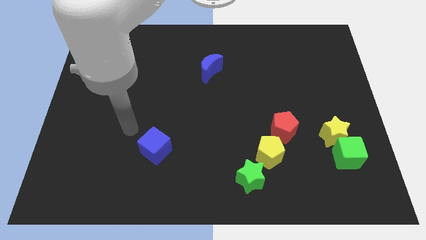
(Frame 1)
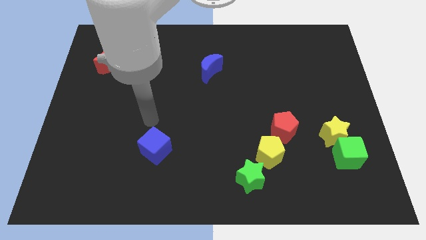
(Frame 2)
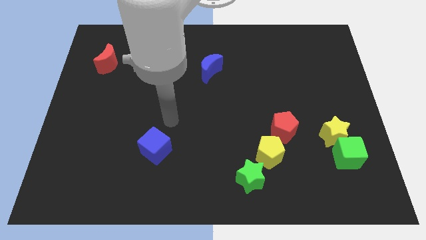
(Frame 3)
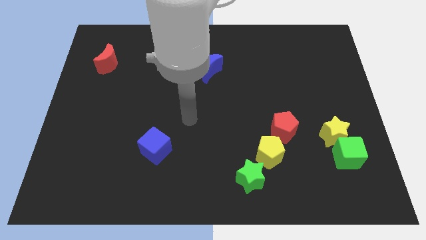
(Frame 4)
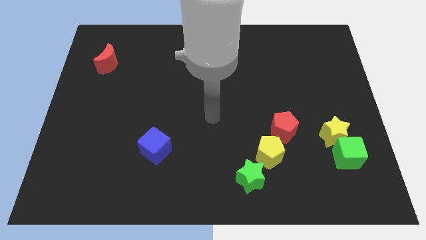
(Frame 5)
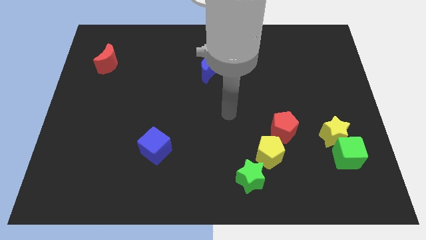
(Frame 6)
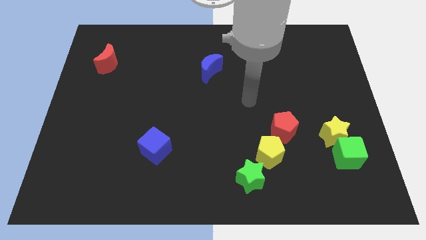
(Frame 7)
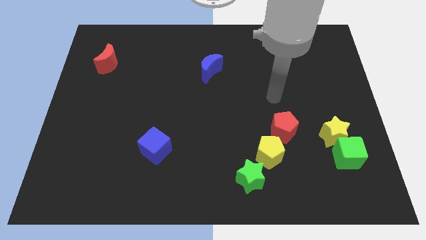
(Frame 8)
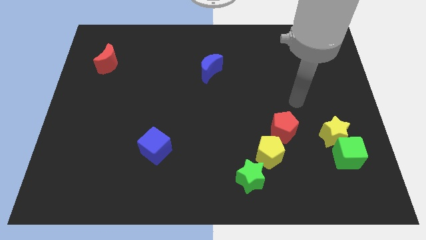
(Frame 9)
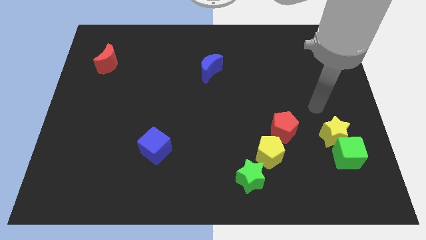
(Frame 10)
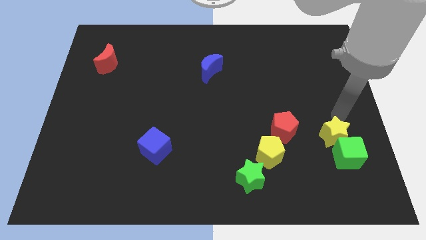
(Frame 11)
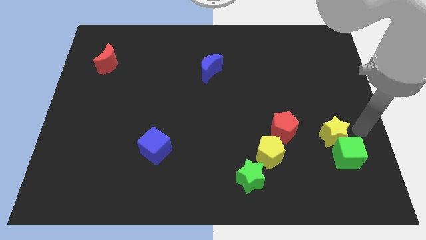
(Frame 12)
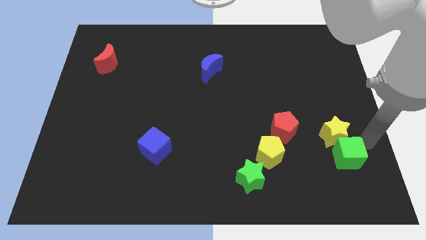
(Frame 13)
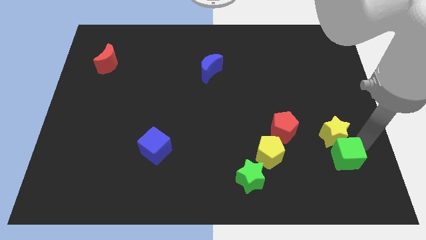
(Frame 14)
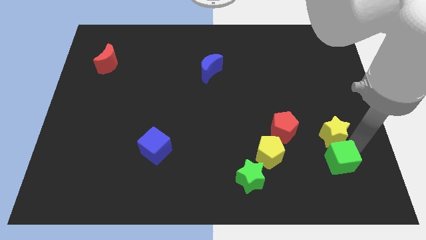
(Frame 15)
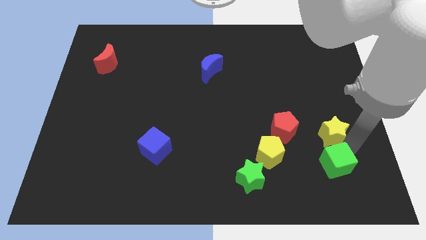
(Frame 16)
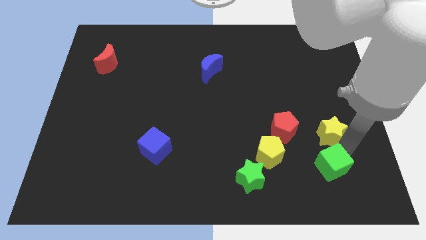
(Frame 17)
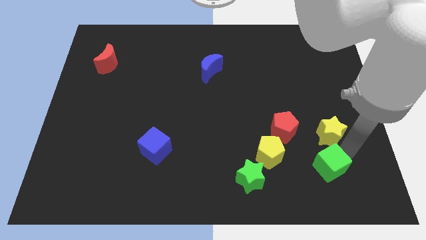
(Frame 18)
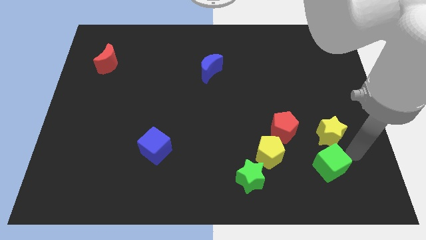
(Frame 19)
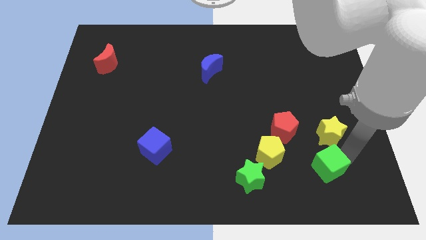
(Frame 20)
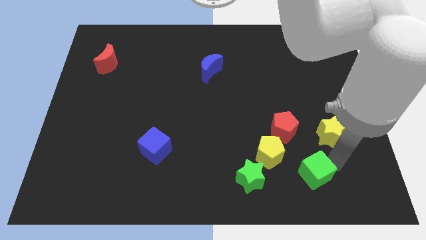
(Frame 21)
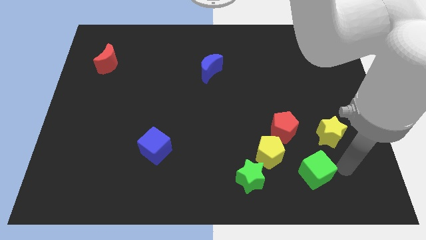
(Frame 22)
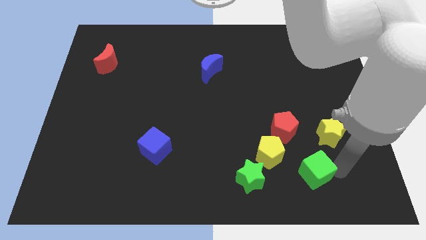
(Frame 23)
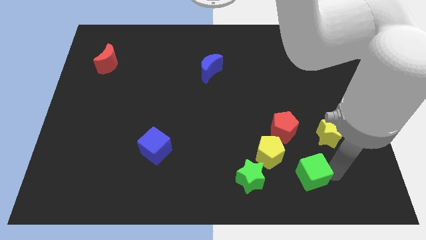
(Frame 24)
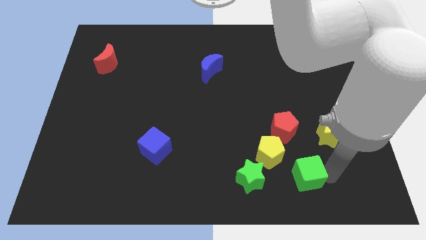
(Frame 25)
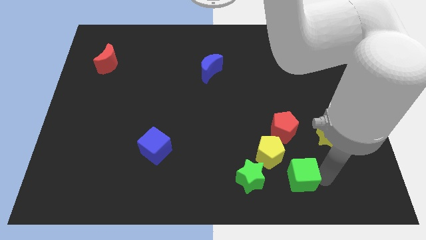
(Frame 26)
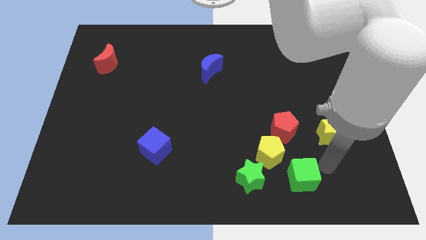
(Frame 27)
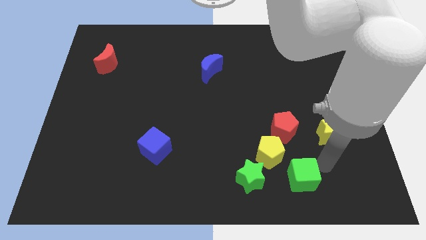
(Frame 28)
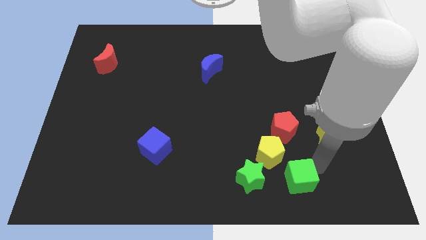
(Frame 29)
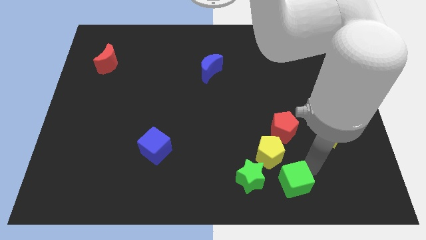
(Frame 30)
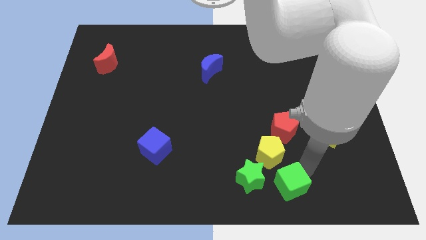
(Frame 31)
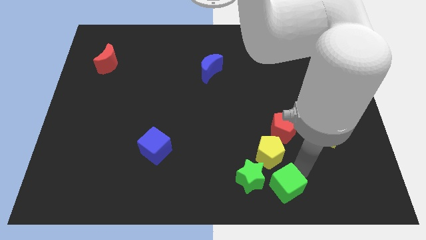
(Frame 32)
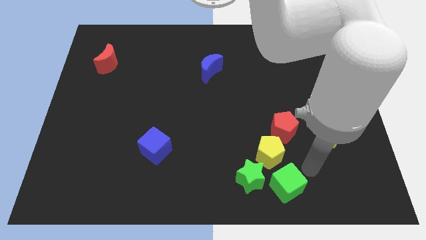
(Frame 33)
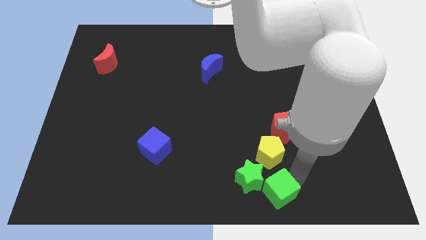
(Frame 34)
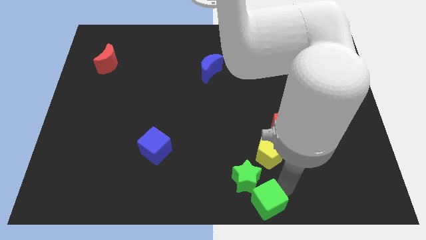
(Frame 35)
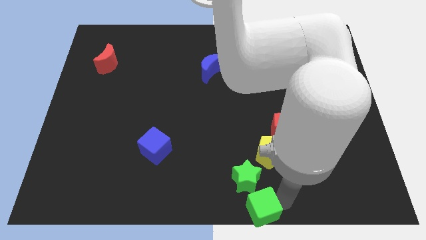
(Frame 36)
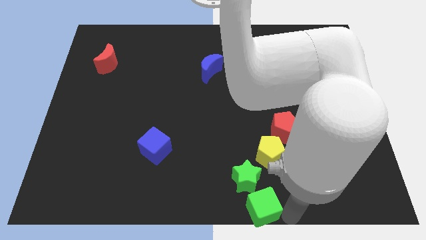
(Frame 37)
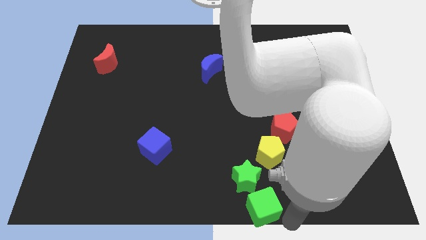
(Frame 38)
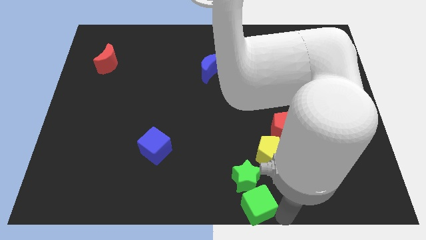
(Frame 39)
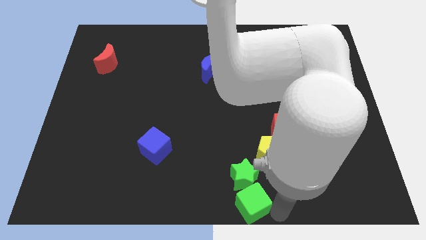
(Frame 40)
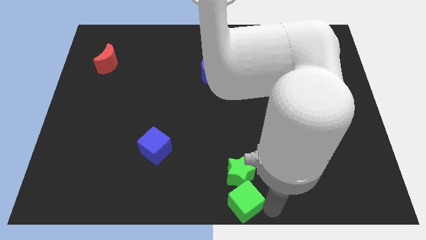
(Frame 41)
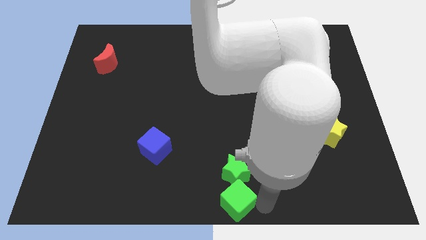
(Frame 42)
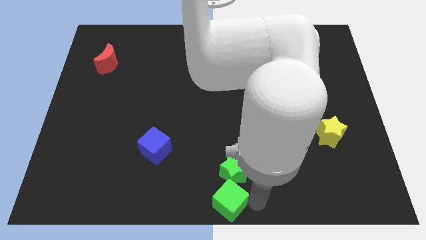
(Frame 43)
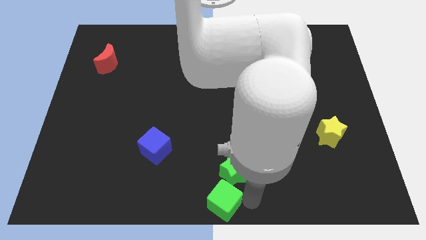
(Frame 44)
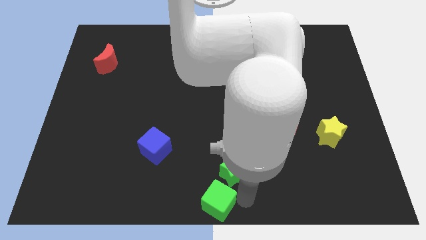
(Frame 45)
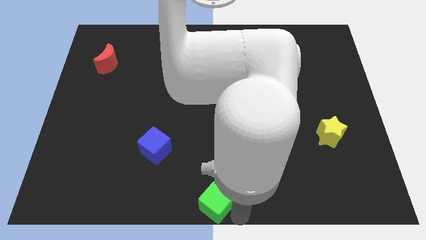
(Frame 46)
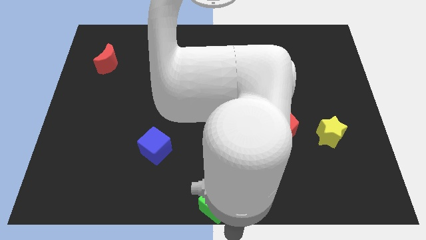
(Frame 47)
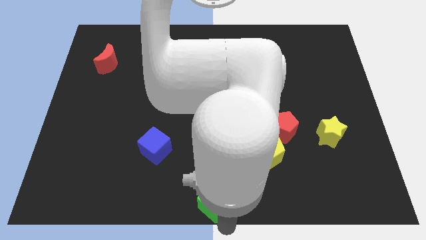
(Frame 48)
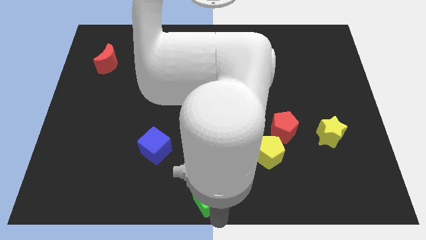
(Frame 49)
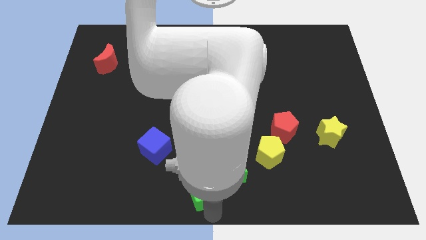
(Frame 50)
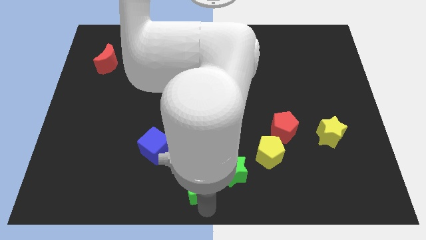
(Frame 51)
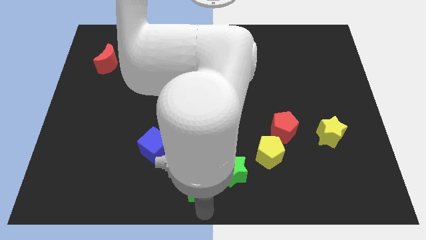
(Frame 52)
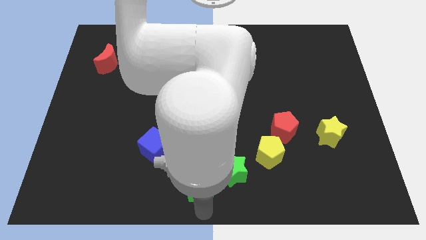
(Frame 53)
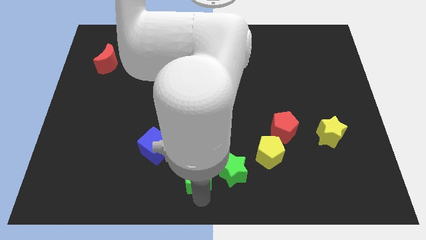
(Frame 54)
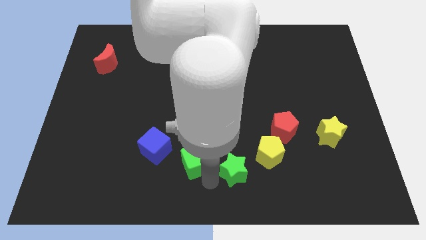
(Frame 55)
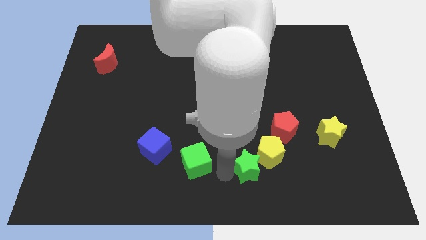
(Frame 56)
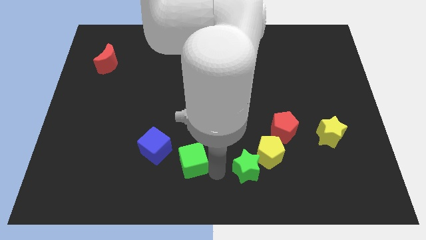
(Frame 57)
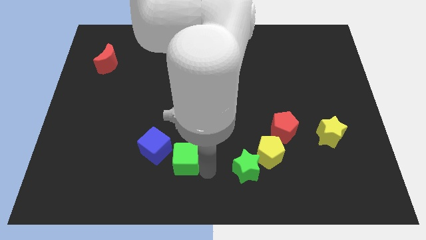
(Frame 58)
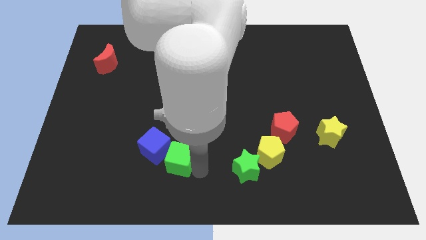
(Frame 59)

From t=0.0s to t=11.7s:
move the green cube close to the blue cube

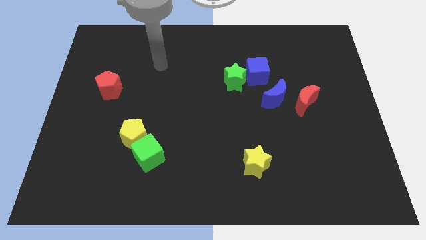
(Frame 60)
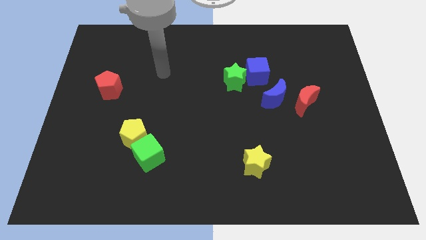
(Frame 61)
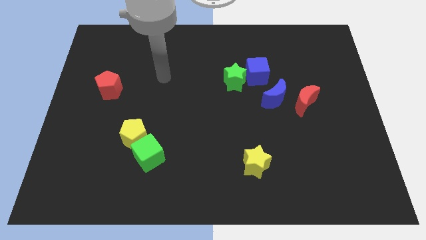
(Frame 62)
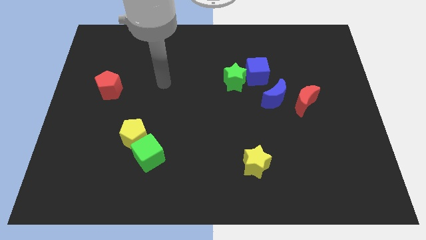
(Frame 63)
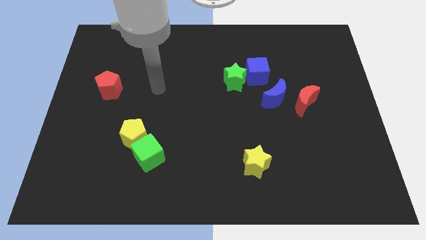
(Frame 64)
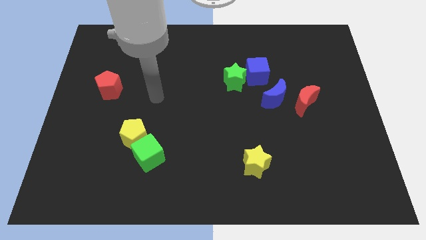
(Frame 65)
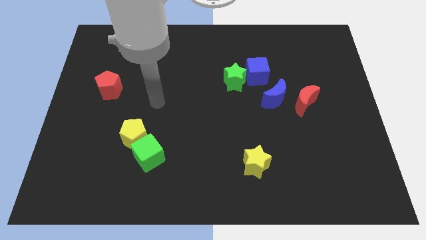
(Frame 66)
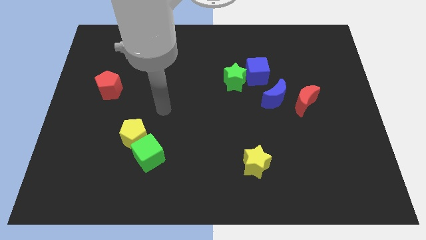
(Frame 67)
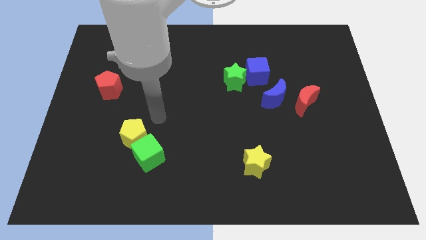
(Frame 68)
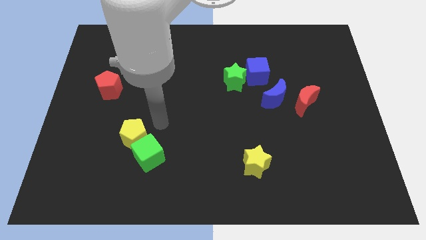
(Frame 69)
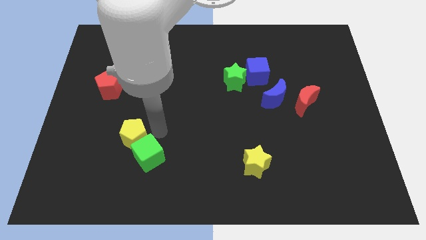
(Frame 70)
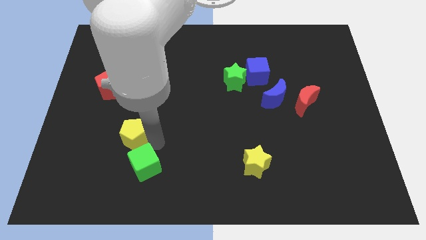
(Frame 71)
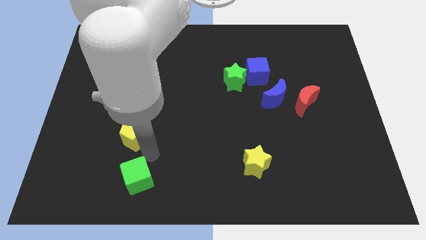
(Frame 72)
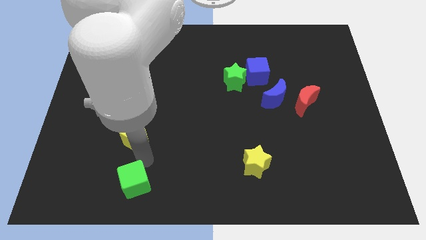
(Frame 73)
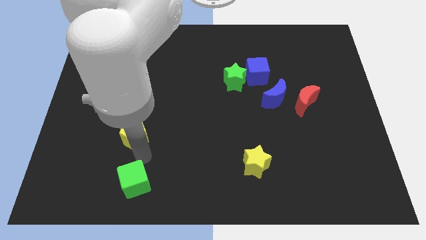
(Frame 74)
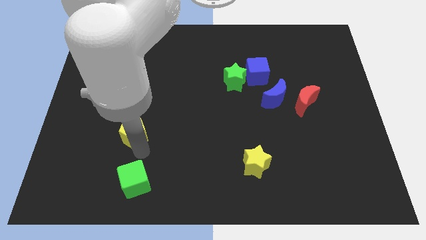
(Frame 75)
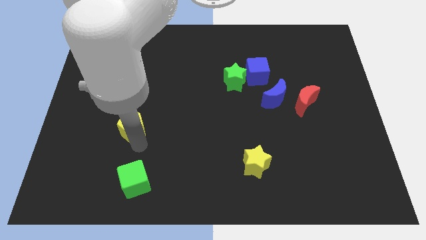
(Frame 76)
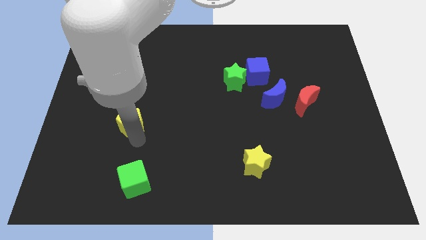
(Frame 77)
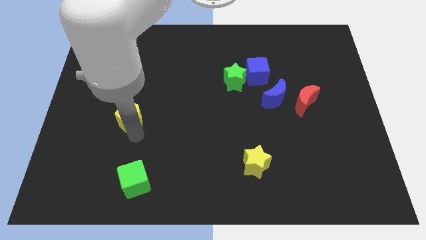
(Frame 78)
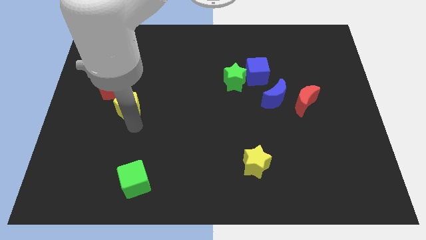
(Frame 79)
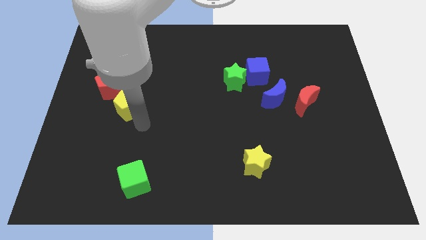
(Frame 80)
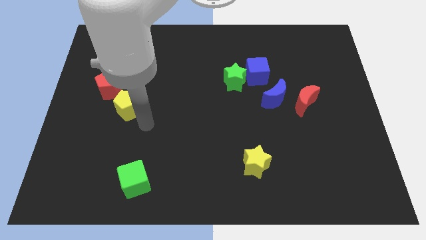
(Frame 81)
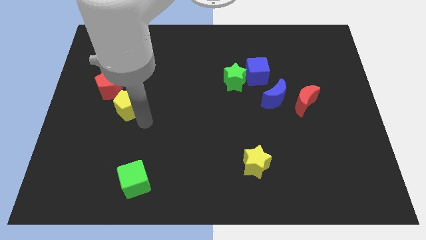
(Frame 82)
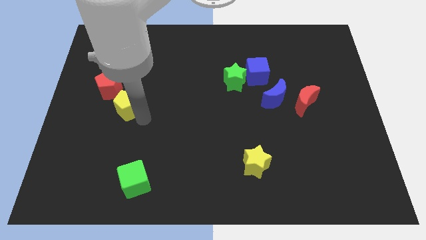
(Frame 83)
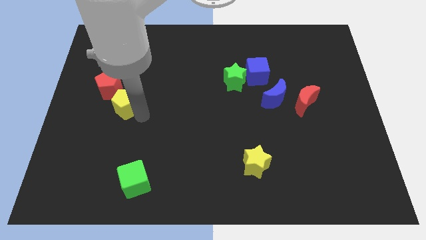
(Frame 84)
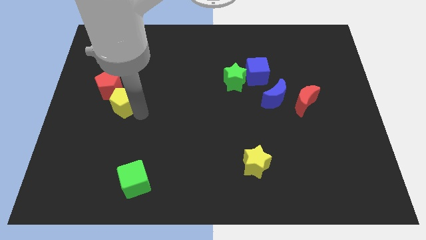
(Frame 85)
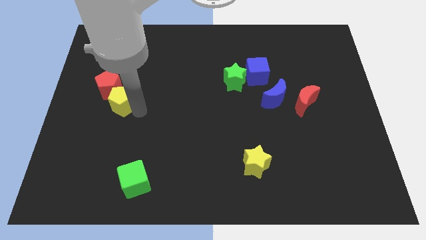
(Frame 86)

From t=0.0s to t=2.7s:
put the yellow pentagon towards the red pentagon
